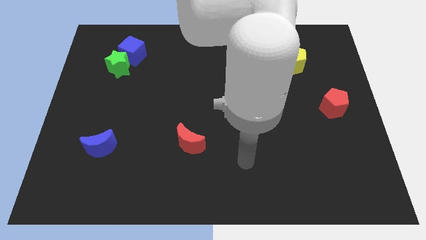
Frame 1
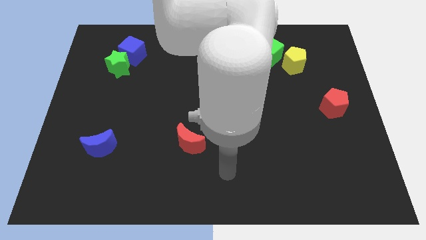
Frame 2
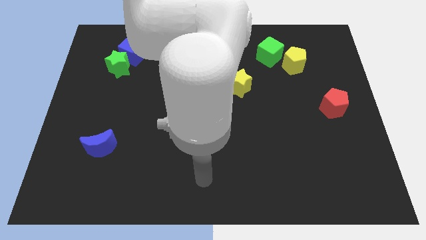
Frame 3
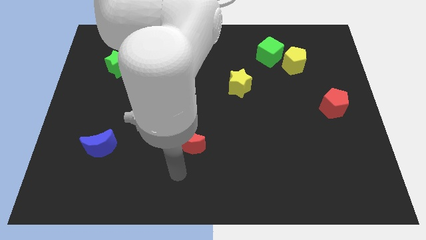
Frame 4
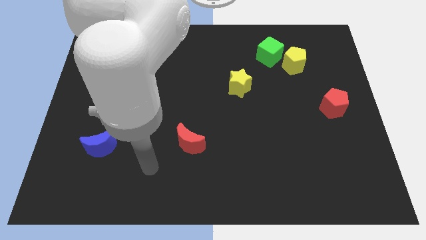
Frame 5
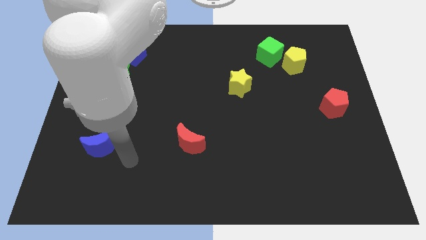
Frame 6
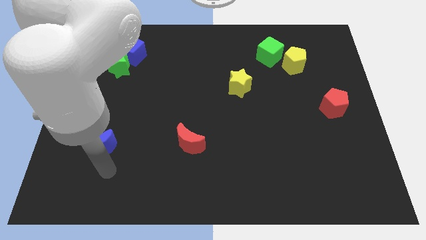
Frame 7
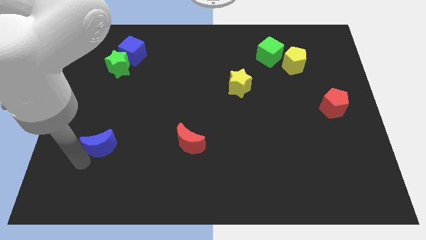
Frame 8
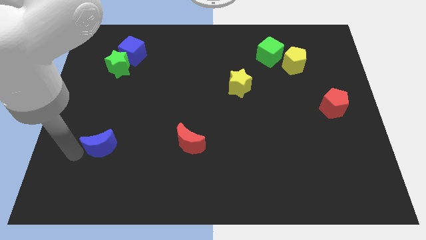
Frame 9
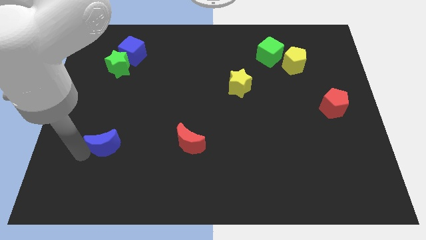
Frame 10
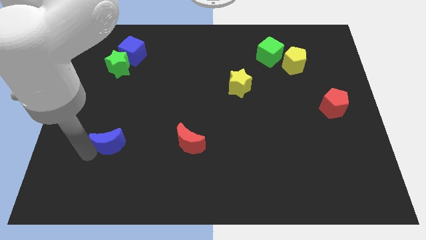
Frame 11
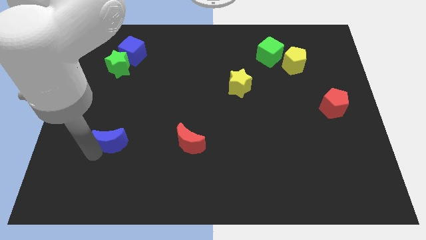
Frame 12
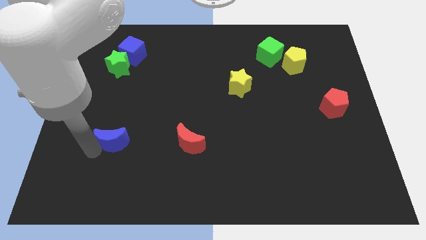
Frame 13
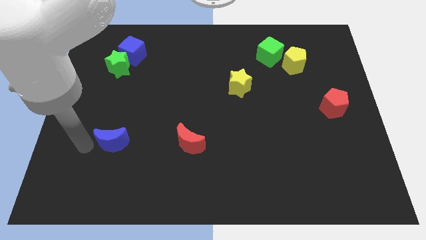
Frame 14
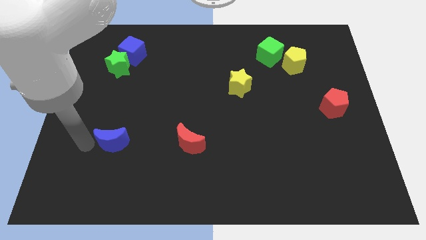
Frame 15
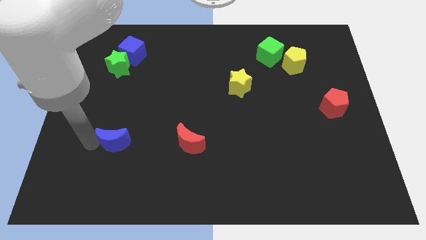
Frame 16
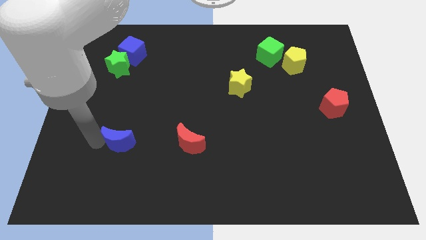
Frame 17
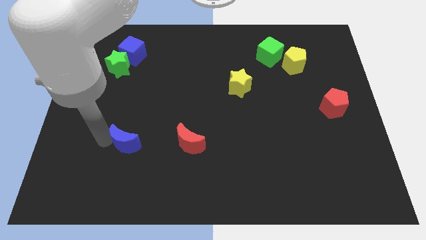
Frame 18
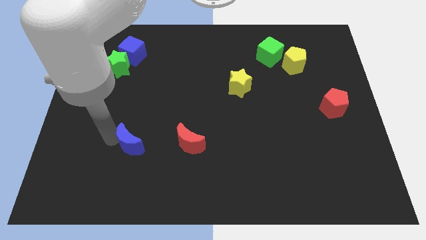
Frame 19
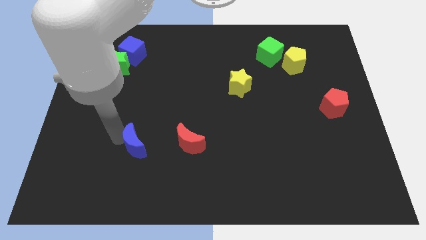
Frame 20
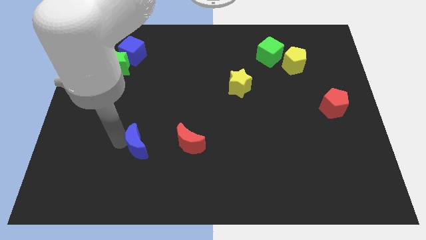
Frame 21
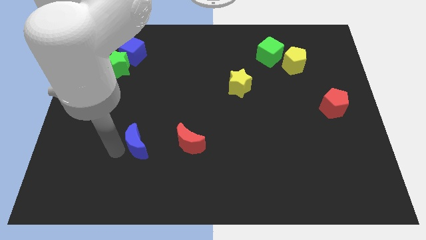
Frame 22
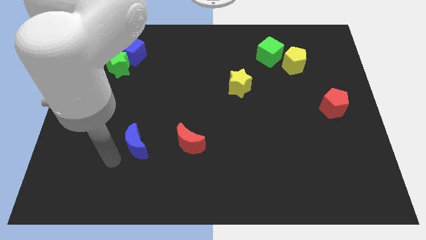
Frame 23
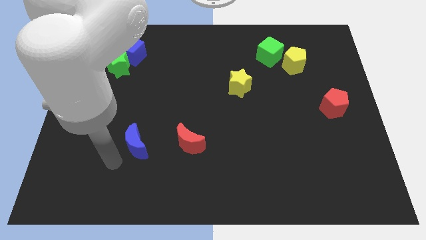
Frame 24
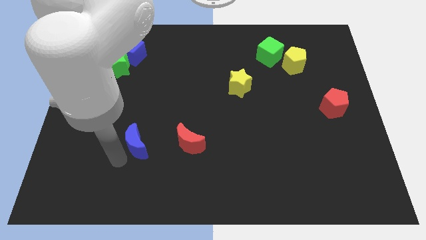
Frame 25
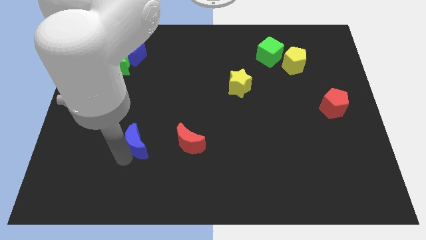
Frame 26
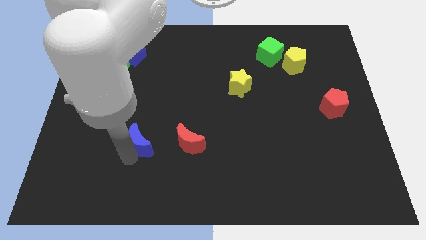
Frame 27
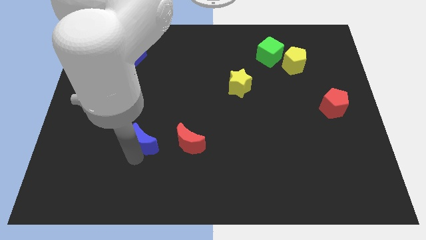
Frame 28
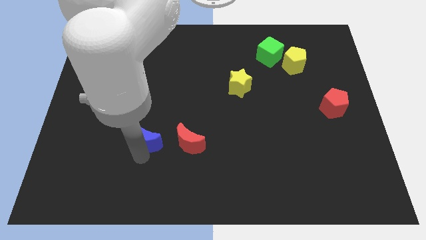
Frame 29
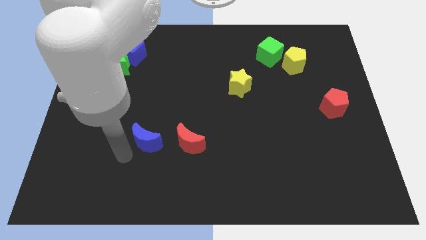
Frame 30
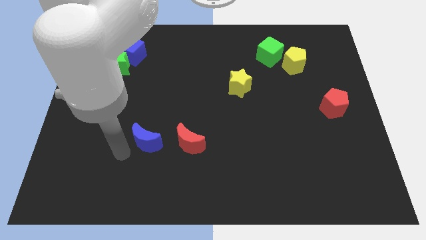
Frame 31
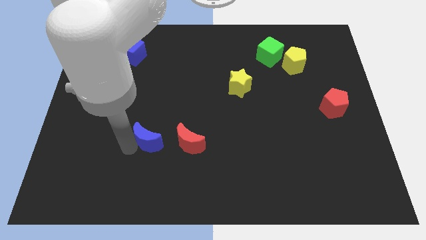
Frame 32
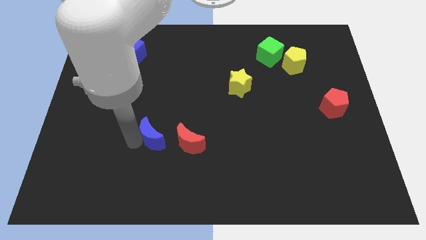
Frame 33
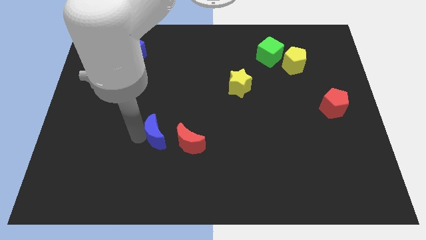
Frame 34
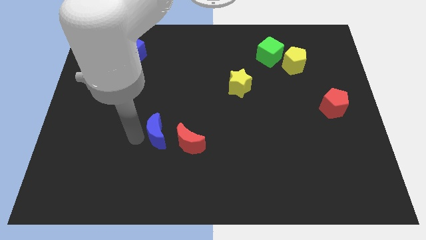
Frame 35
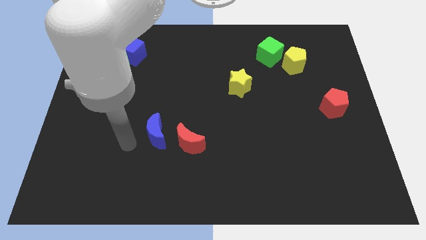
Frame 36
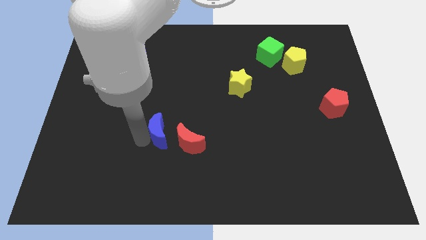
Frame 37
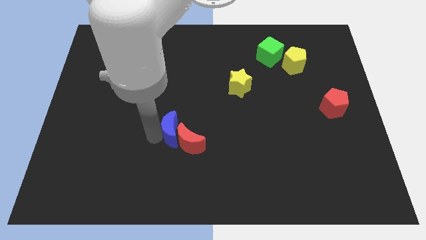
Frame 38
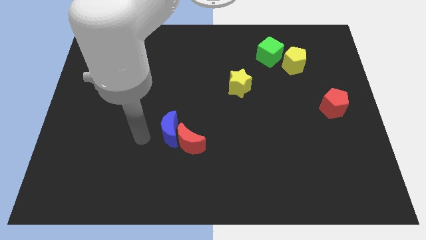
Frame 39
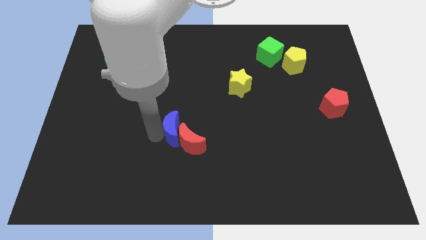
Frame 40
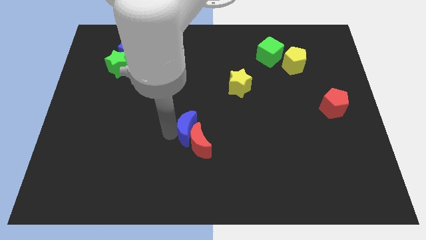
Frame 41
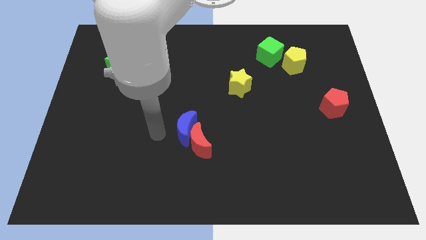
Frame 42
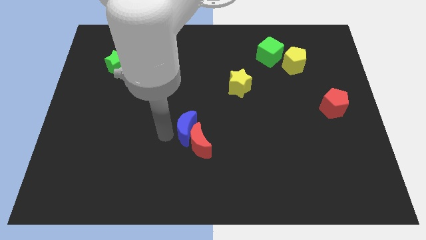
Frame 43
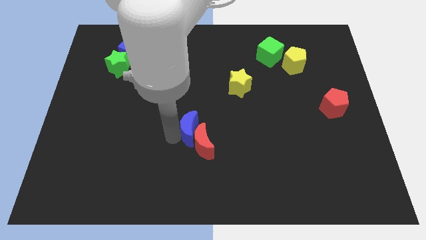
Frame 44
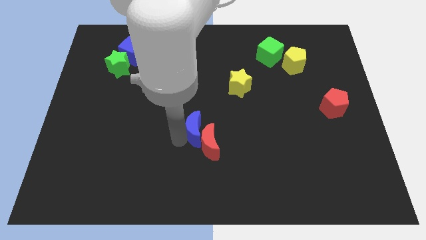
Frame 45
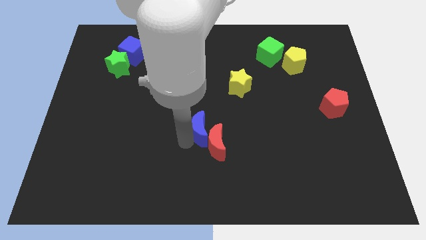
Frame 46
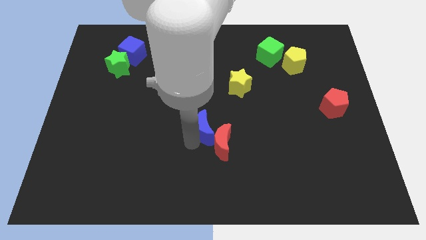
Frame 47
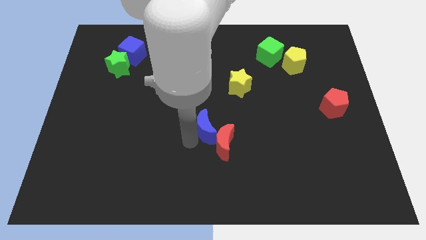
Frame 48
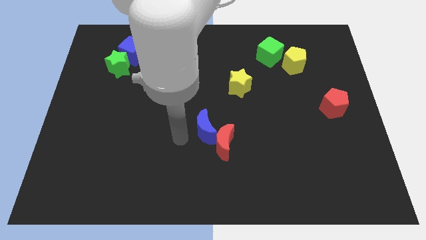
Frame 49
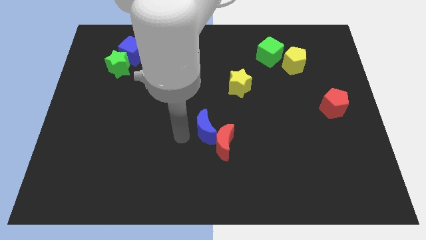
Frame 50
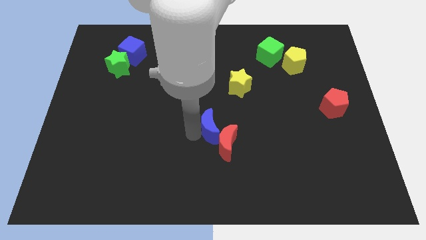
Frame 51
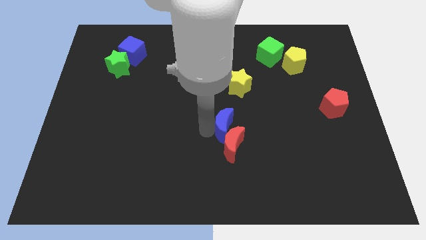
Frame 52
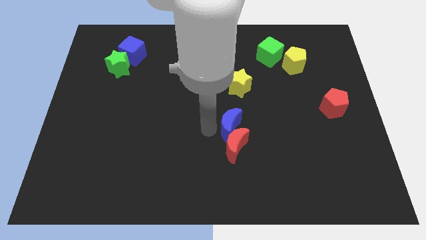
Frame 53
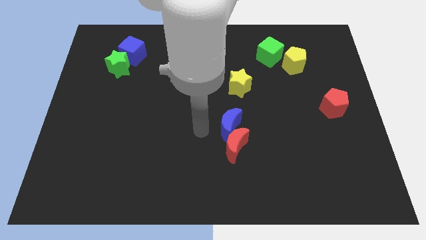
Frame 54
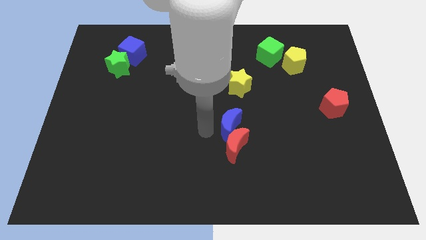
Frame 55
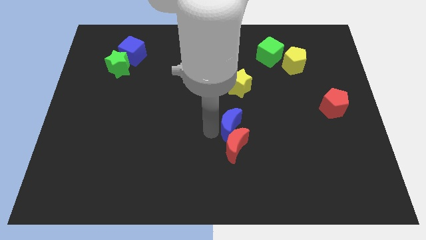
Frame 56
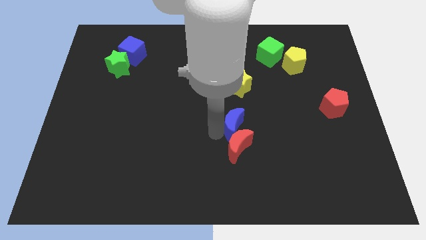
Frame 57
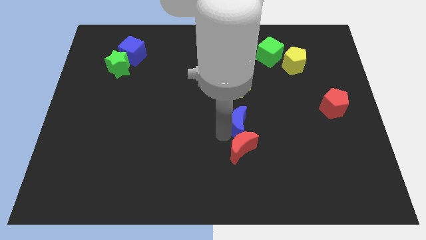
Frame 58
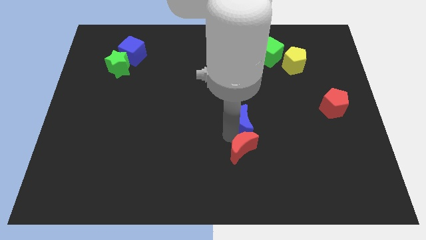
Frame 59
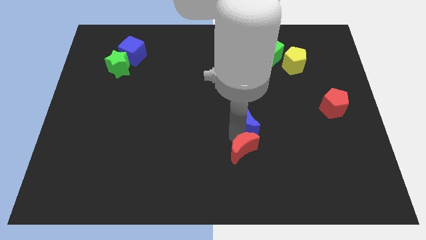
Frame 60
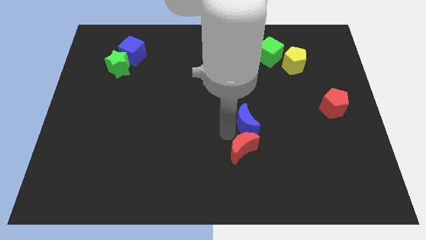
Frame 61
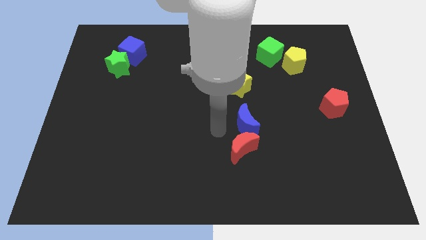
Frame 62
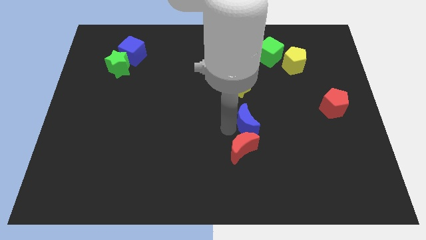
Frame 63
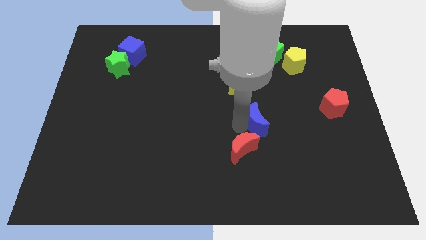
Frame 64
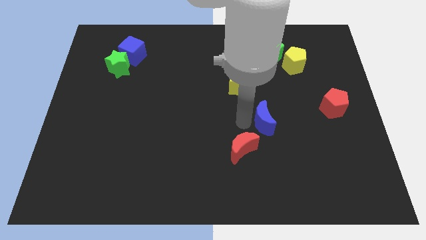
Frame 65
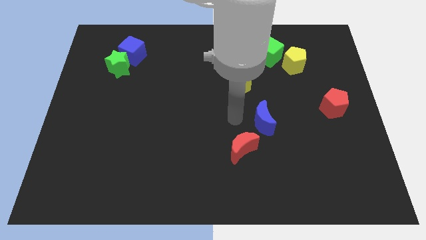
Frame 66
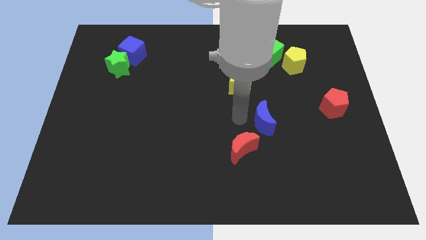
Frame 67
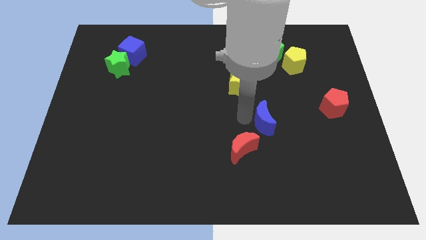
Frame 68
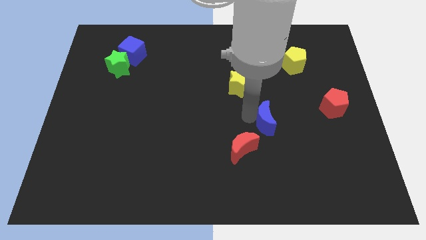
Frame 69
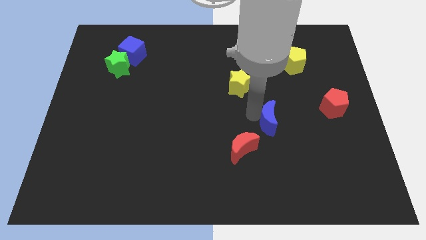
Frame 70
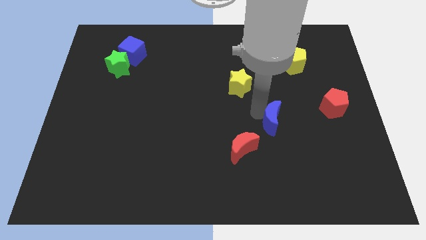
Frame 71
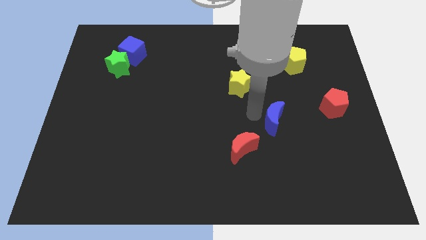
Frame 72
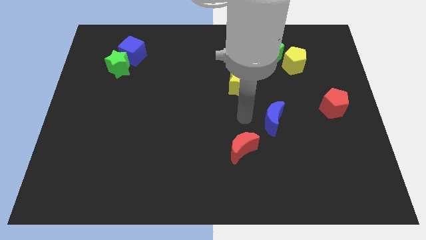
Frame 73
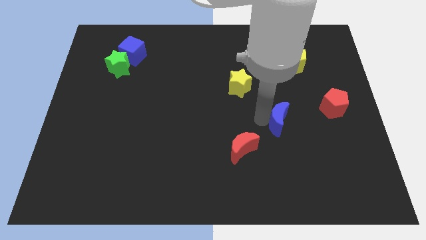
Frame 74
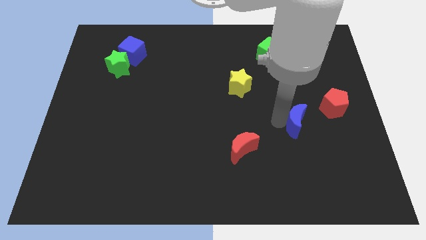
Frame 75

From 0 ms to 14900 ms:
move the blue moon diagonally down and to the left of the red pentagon

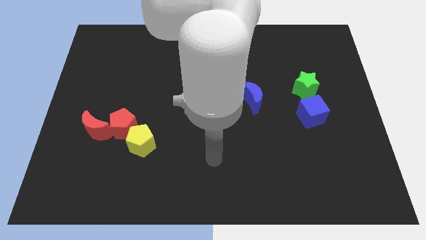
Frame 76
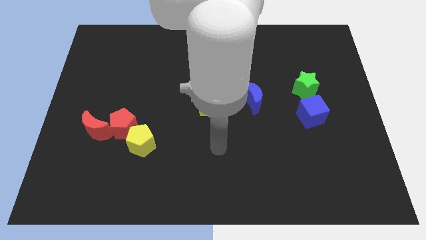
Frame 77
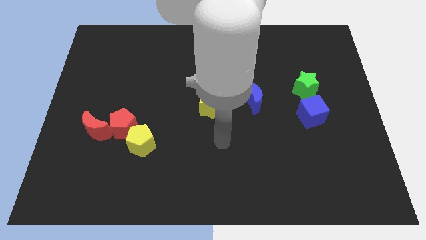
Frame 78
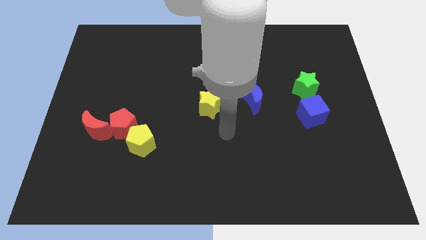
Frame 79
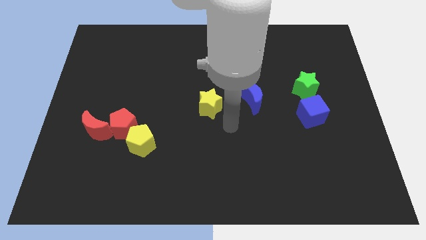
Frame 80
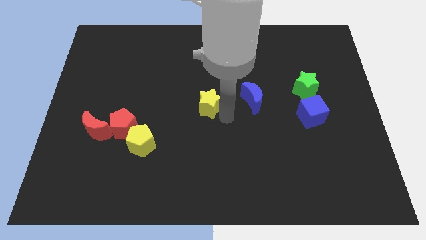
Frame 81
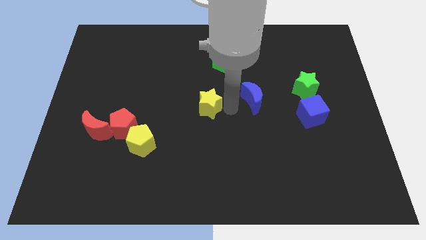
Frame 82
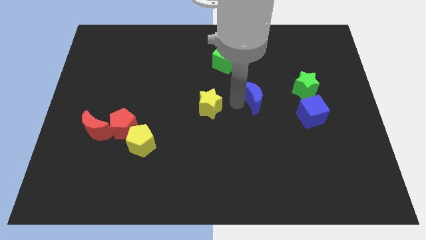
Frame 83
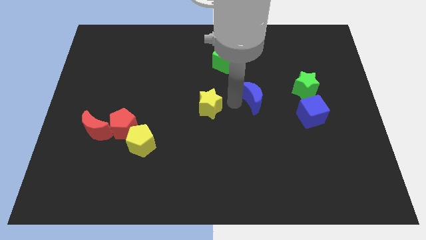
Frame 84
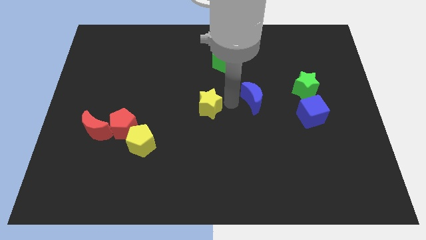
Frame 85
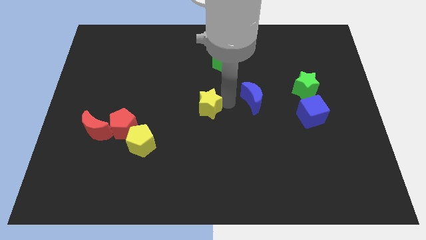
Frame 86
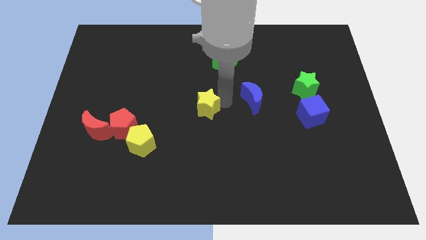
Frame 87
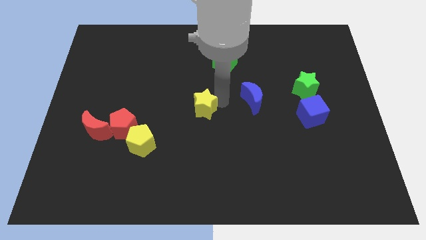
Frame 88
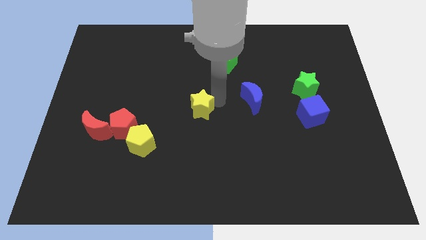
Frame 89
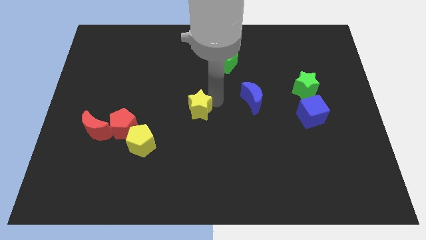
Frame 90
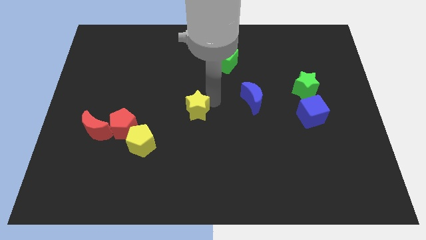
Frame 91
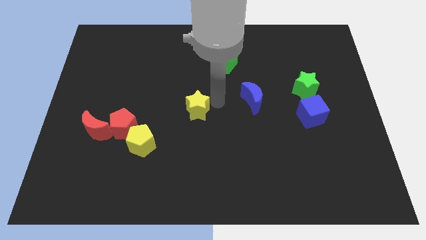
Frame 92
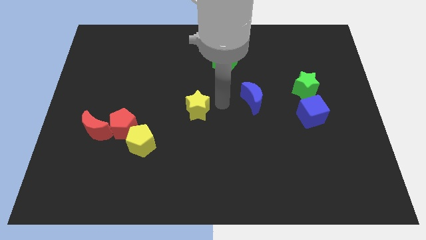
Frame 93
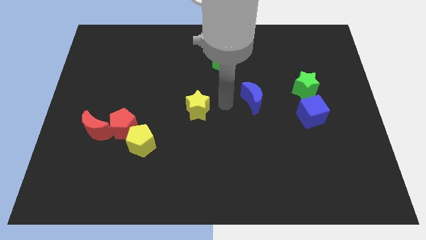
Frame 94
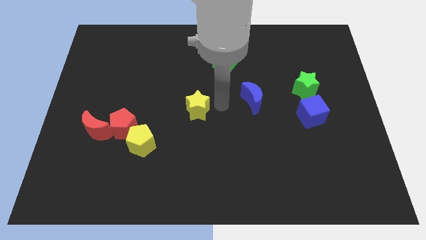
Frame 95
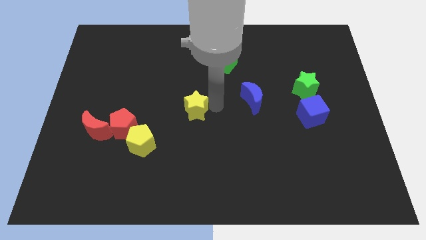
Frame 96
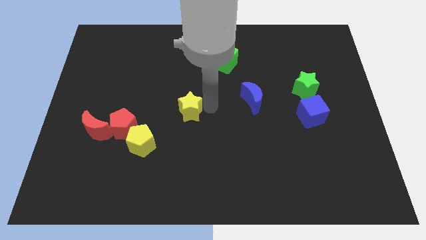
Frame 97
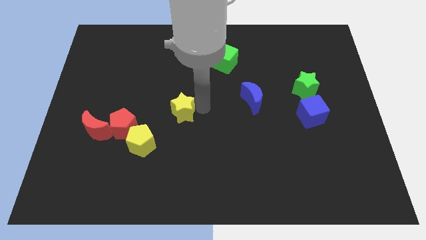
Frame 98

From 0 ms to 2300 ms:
put the yellow star to the top right side of the yellow pentagon
